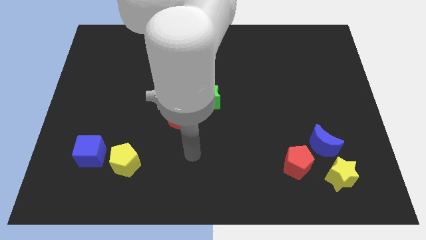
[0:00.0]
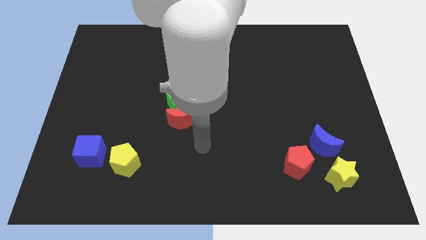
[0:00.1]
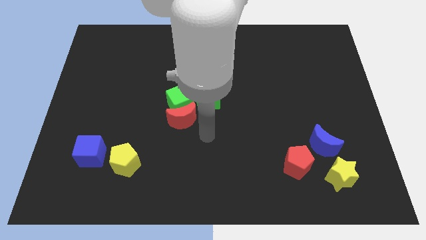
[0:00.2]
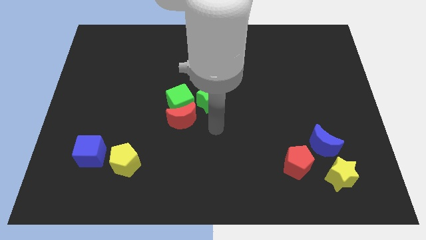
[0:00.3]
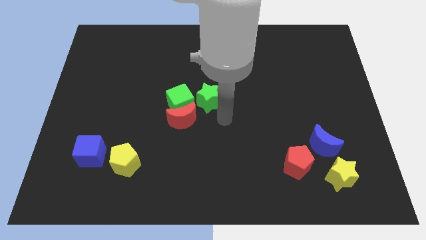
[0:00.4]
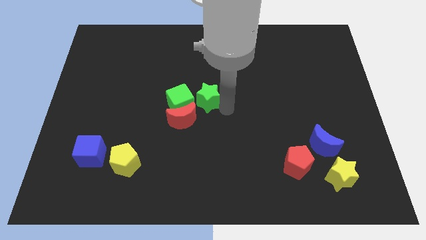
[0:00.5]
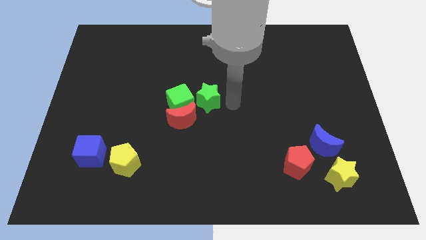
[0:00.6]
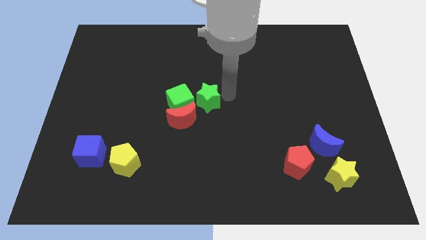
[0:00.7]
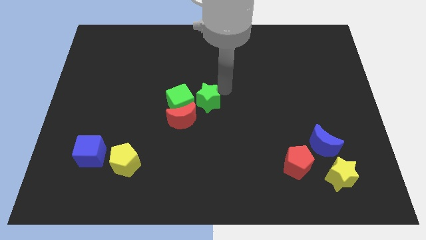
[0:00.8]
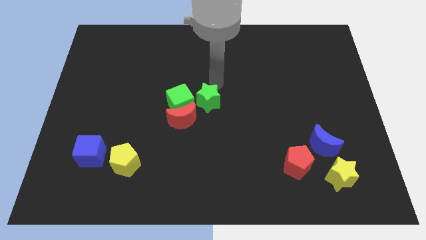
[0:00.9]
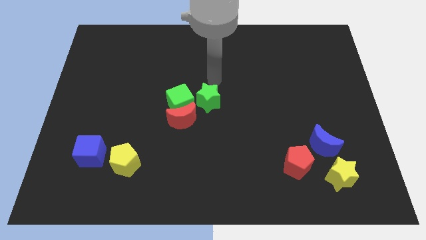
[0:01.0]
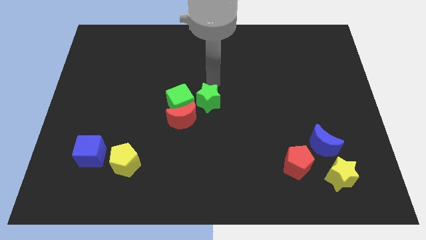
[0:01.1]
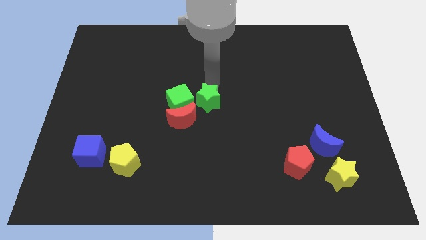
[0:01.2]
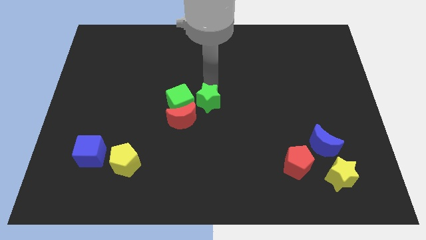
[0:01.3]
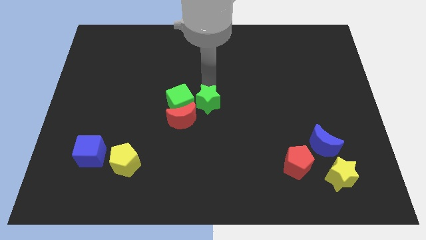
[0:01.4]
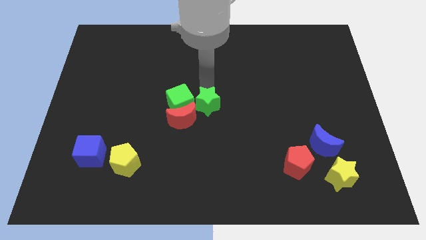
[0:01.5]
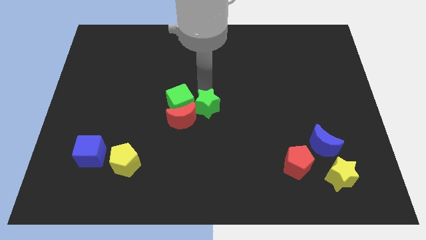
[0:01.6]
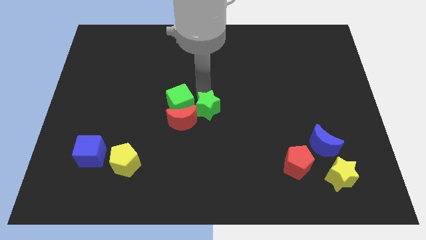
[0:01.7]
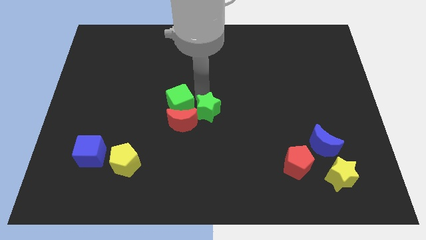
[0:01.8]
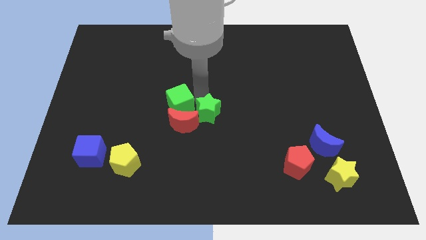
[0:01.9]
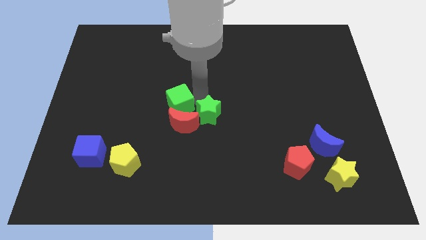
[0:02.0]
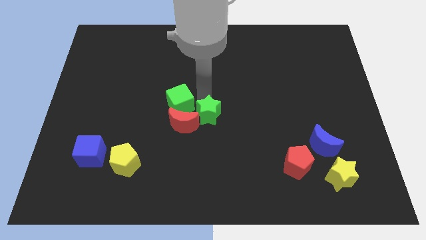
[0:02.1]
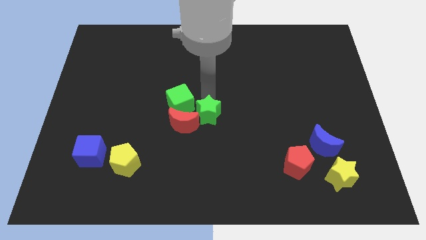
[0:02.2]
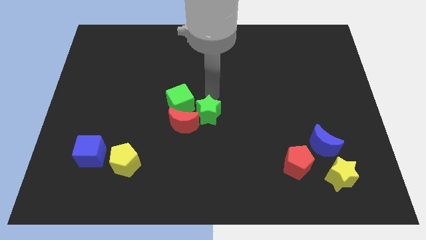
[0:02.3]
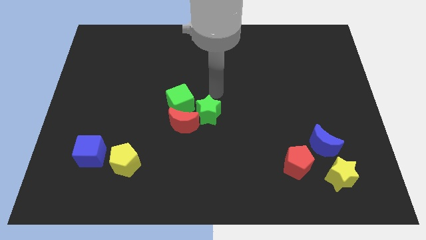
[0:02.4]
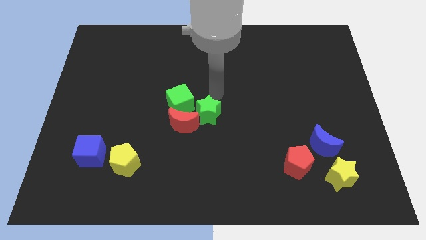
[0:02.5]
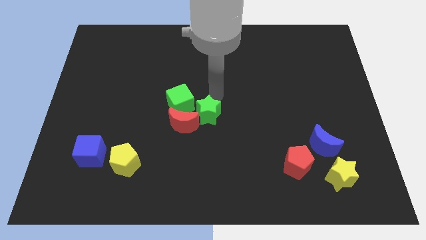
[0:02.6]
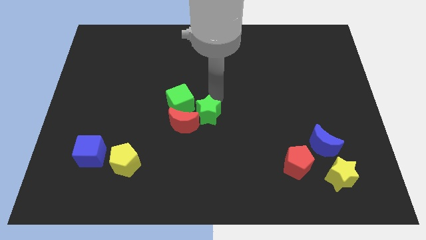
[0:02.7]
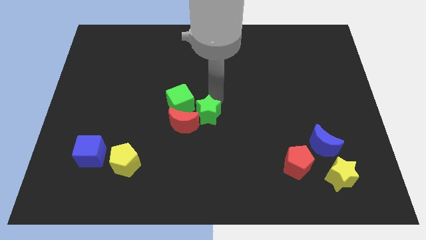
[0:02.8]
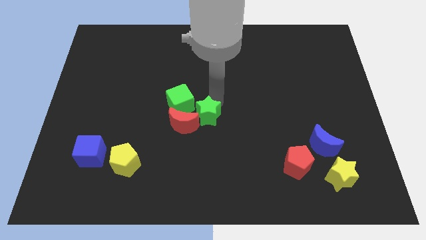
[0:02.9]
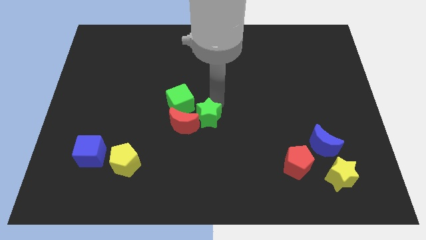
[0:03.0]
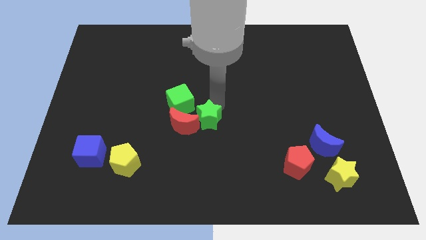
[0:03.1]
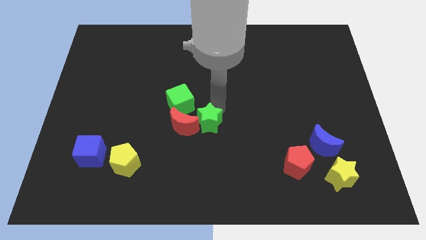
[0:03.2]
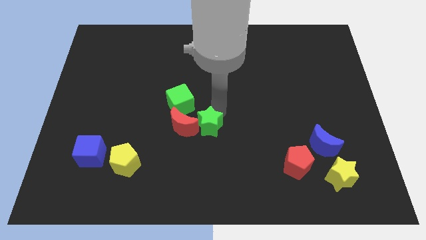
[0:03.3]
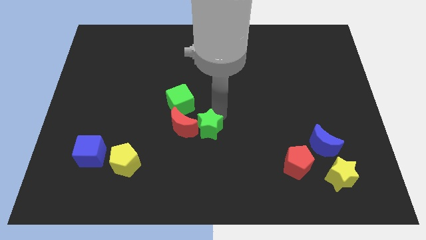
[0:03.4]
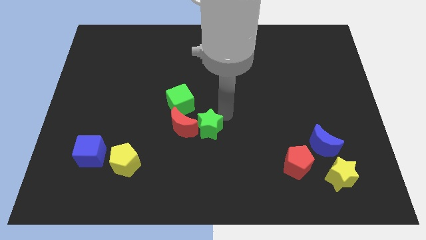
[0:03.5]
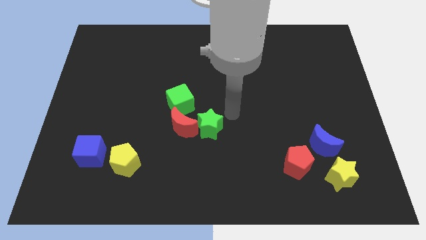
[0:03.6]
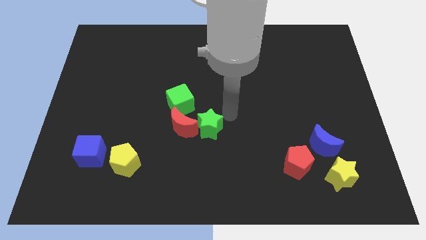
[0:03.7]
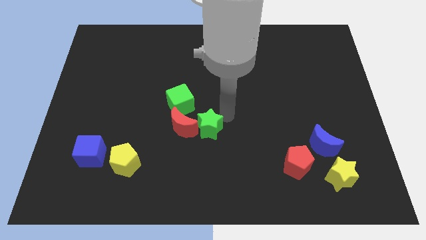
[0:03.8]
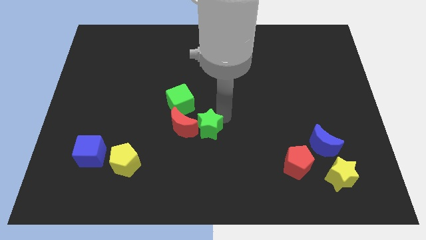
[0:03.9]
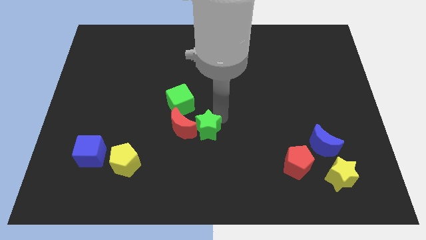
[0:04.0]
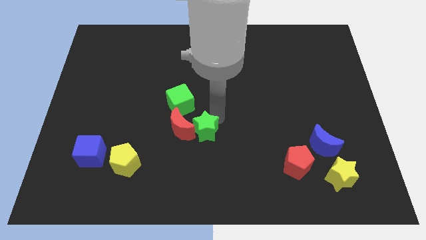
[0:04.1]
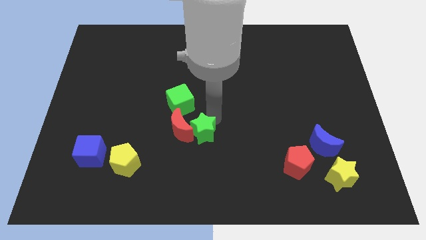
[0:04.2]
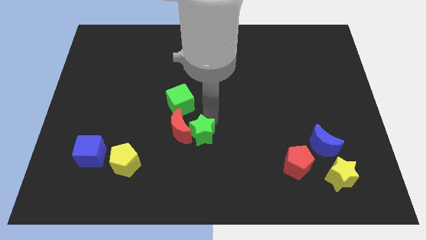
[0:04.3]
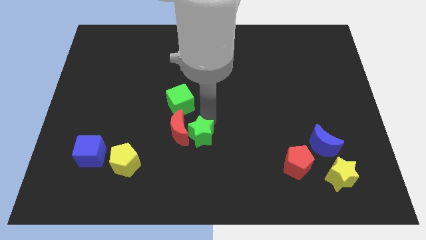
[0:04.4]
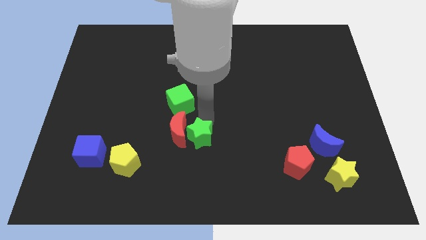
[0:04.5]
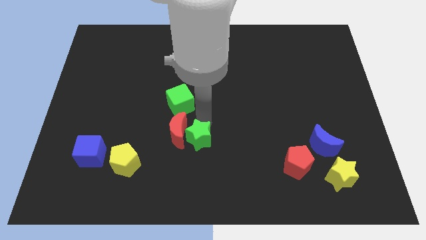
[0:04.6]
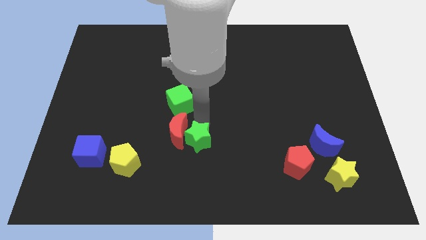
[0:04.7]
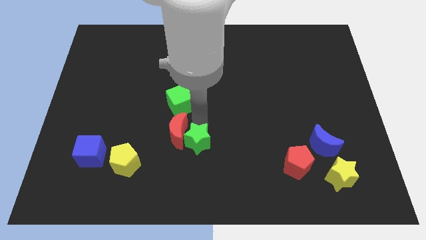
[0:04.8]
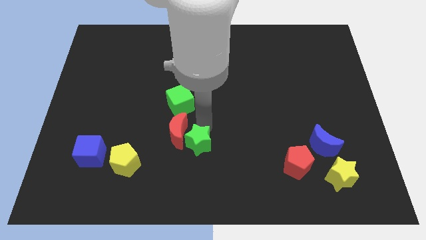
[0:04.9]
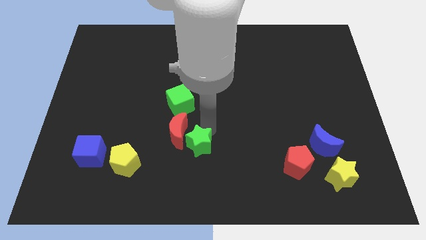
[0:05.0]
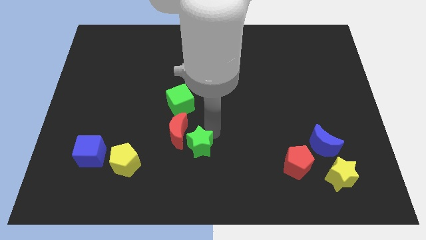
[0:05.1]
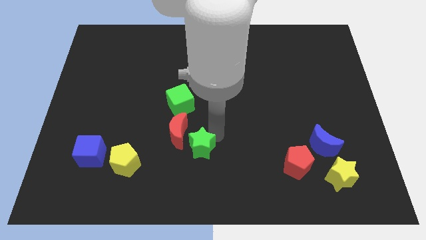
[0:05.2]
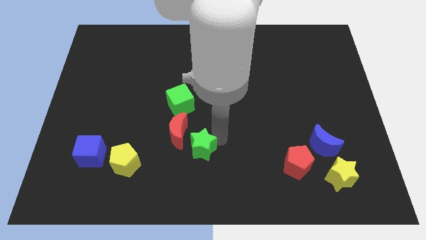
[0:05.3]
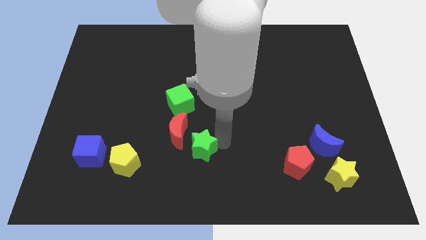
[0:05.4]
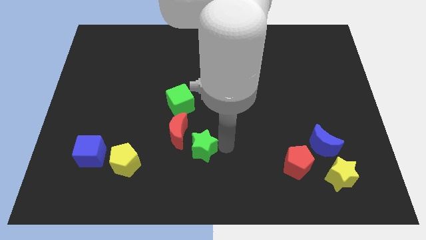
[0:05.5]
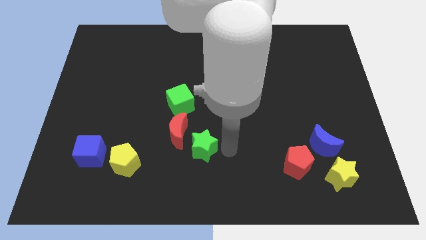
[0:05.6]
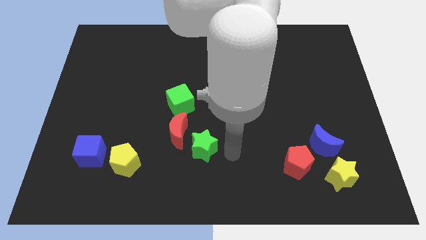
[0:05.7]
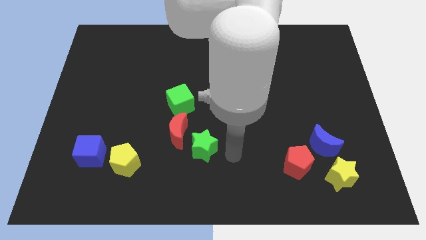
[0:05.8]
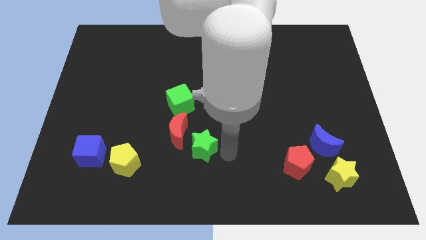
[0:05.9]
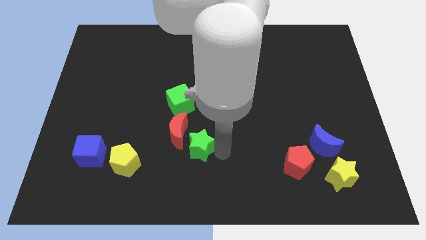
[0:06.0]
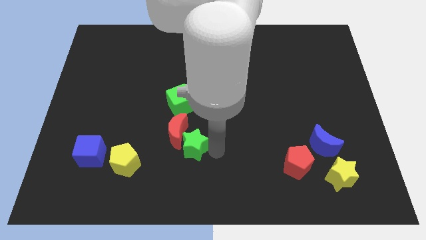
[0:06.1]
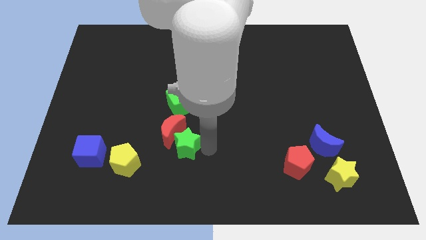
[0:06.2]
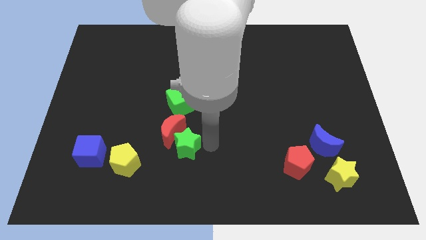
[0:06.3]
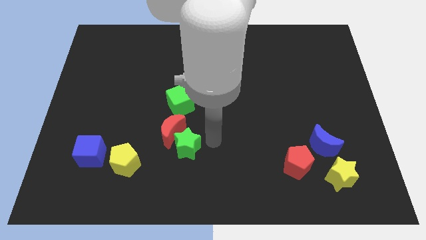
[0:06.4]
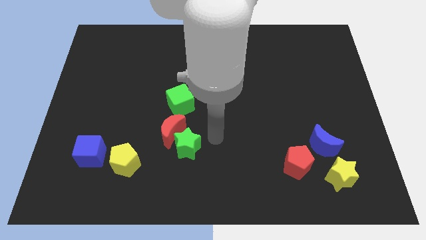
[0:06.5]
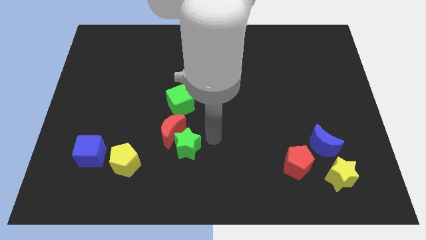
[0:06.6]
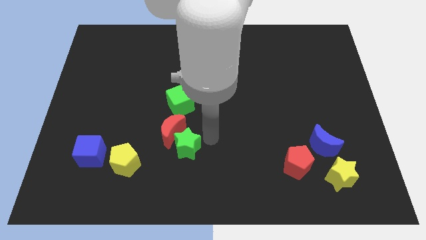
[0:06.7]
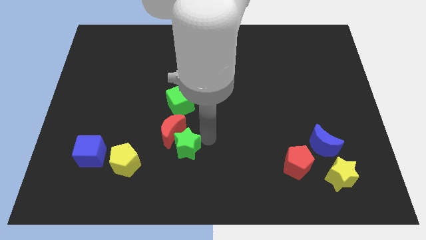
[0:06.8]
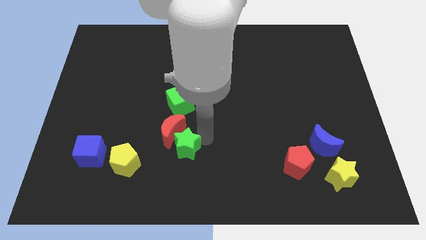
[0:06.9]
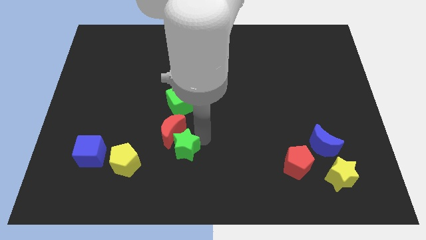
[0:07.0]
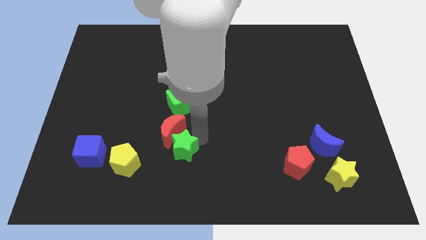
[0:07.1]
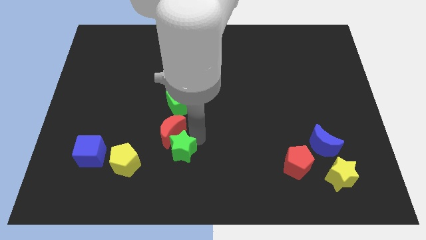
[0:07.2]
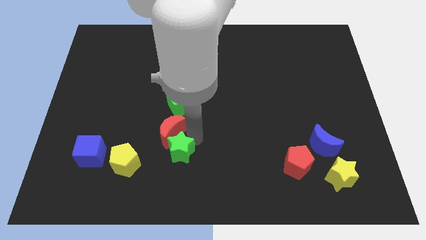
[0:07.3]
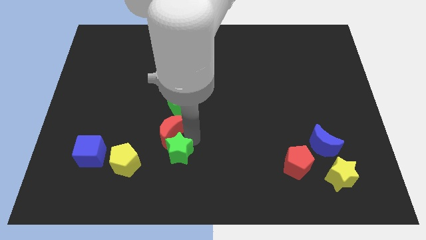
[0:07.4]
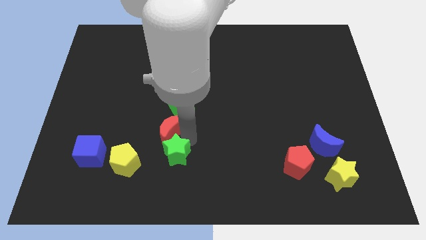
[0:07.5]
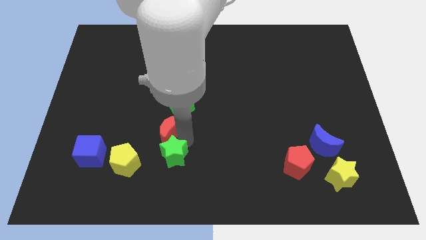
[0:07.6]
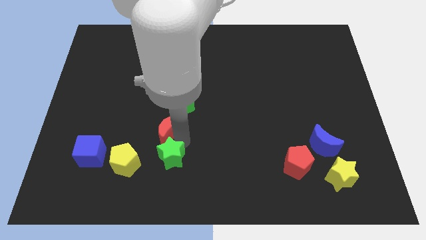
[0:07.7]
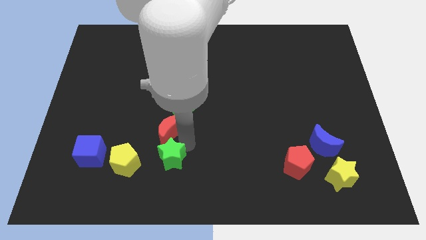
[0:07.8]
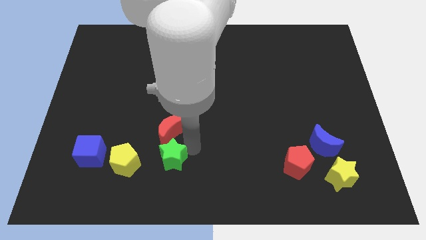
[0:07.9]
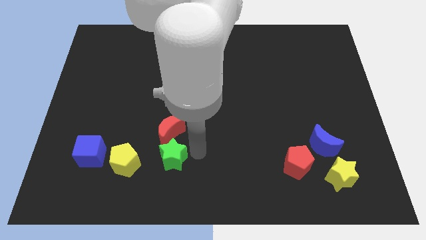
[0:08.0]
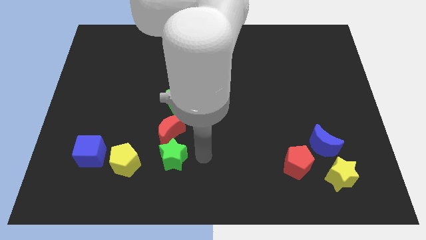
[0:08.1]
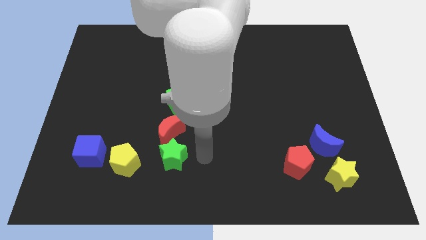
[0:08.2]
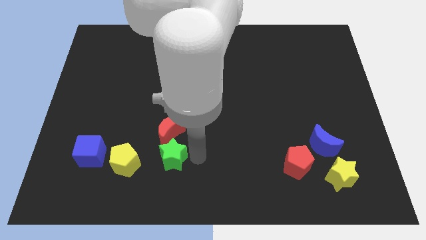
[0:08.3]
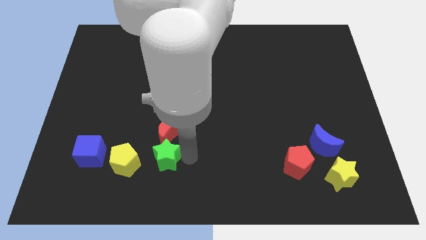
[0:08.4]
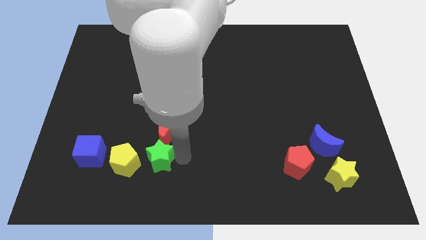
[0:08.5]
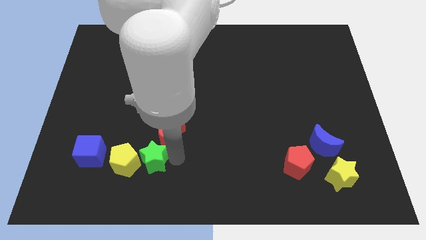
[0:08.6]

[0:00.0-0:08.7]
push the green star close to the yellow pentagon
